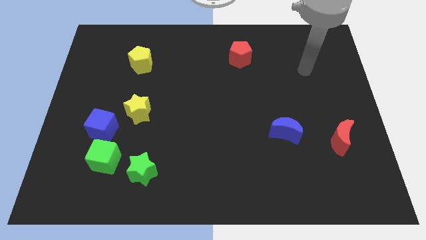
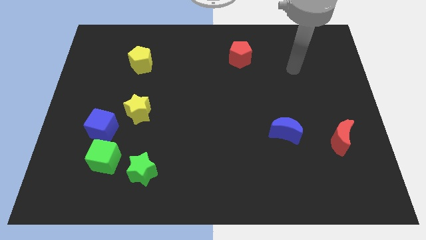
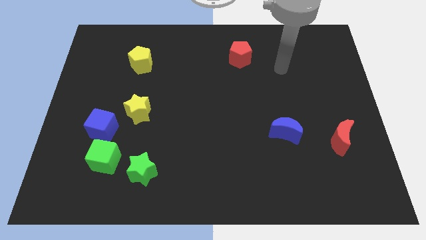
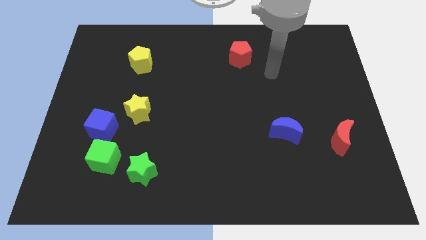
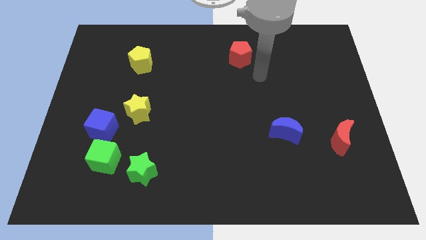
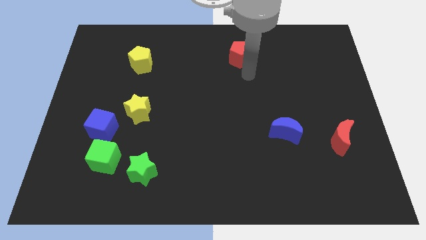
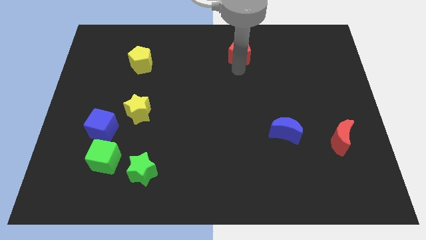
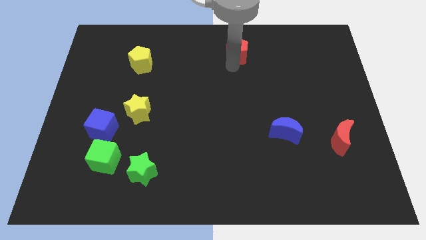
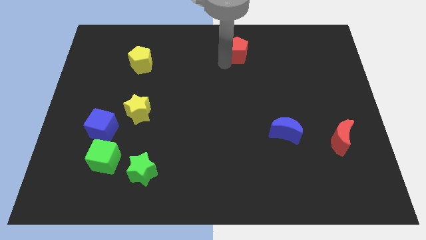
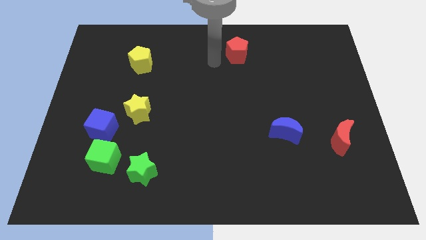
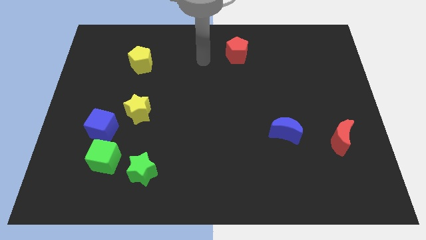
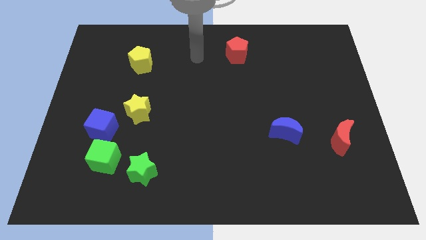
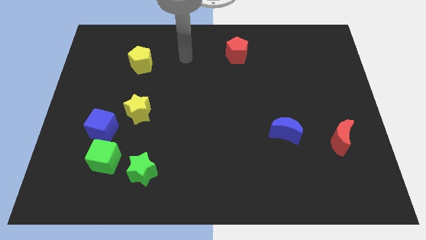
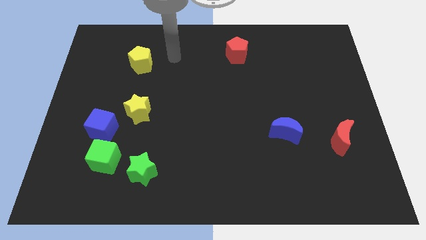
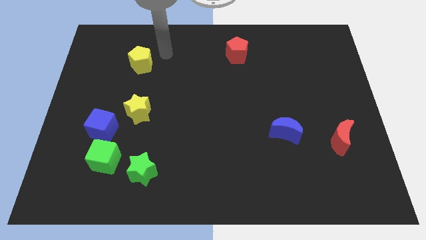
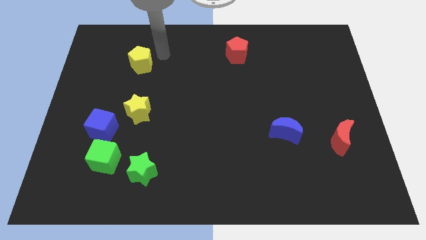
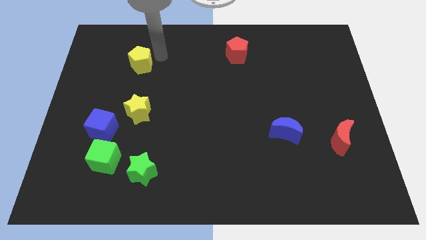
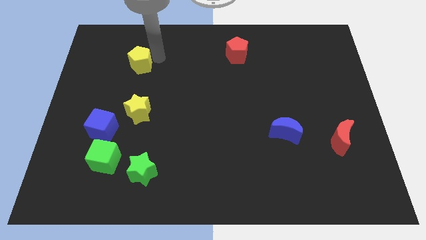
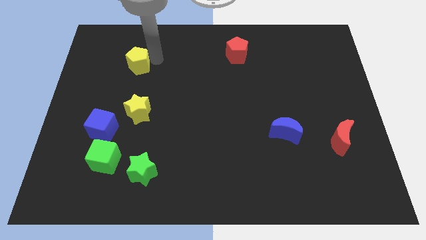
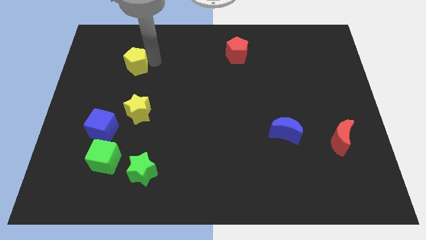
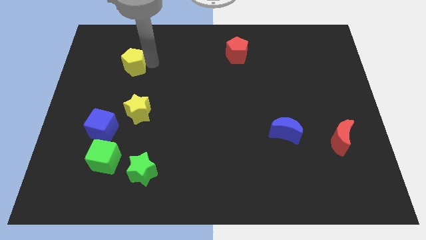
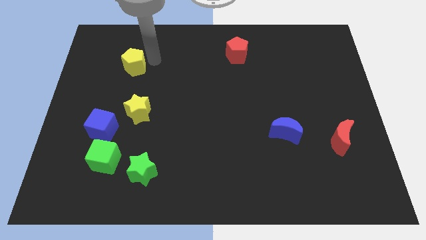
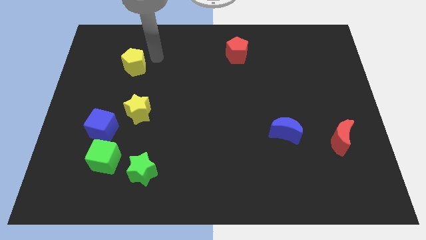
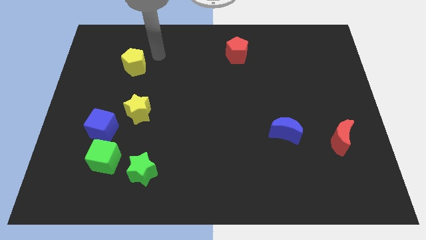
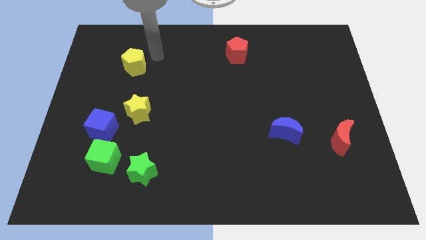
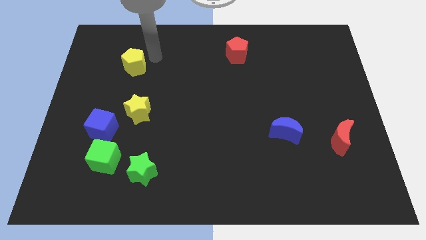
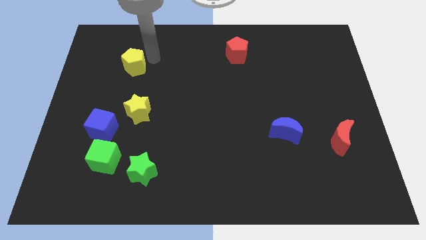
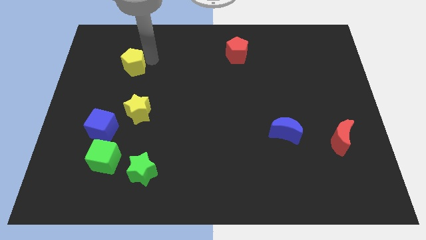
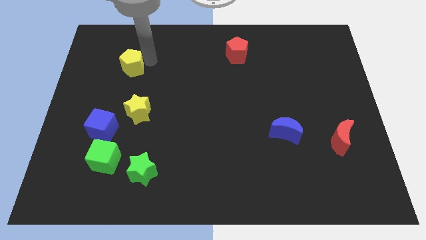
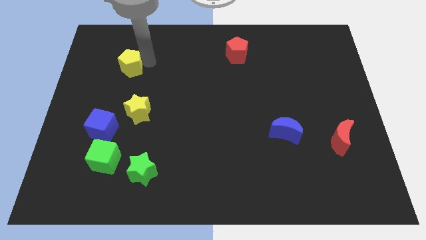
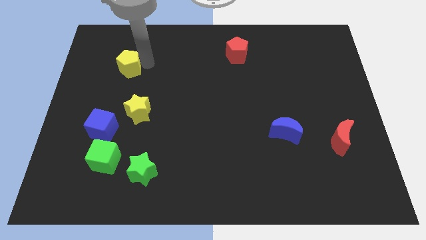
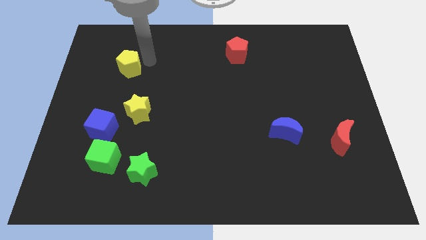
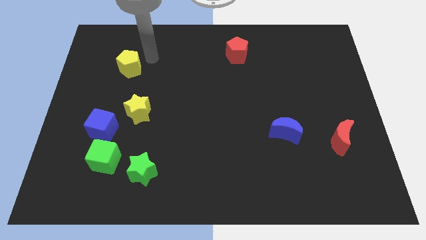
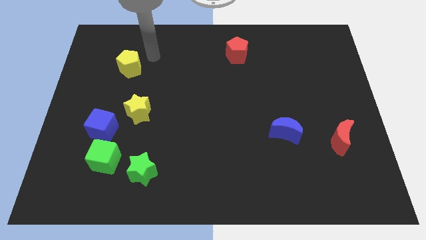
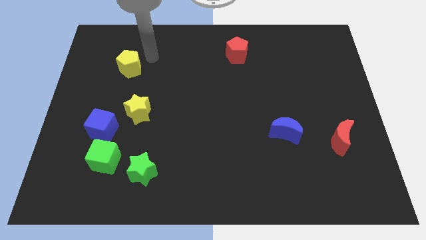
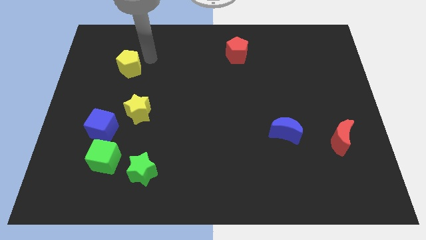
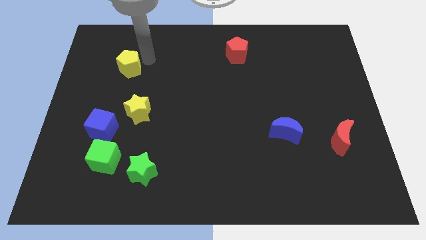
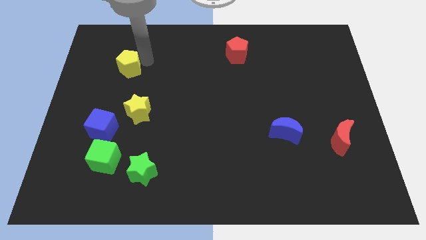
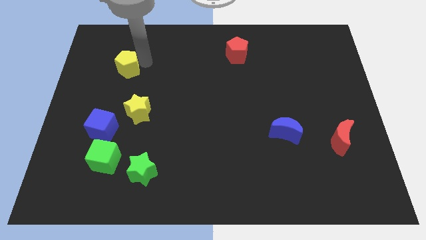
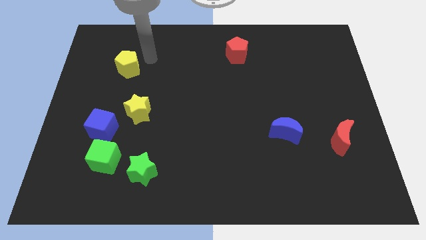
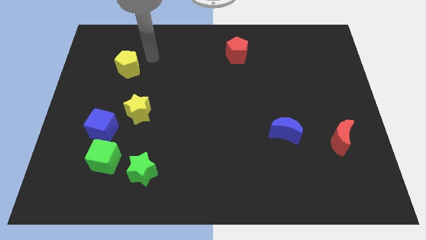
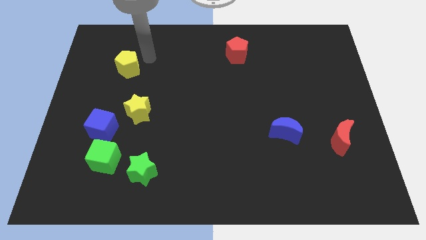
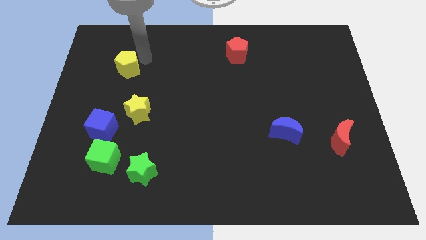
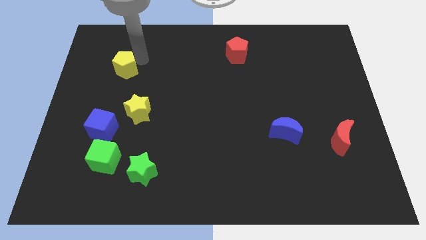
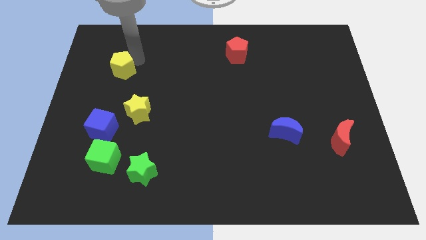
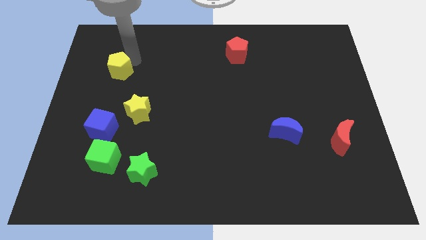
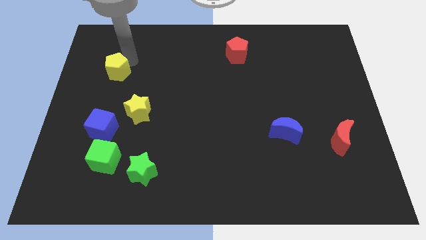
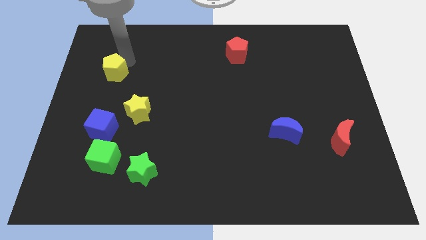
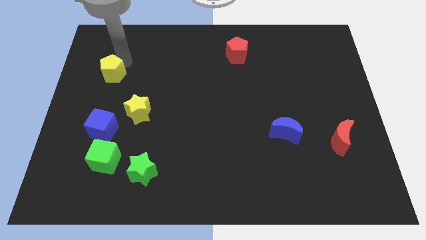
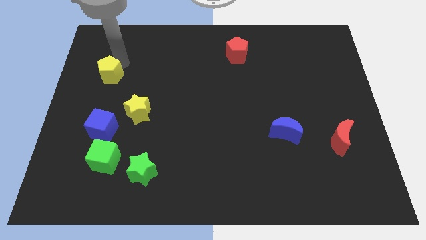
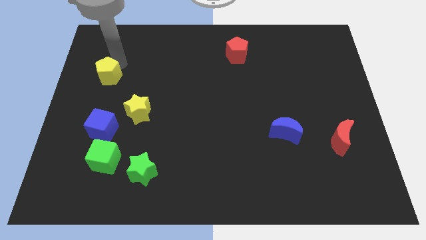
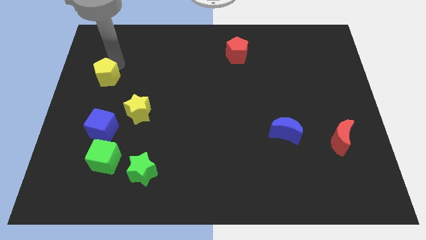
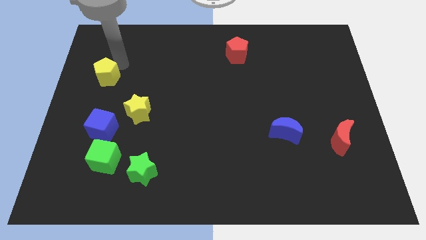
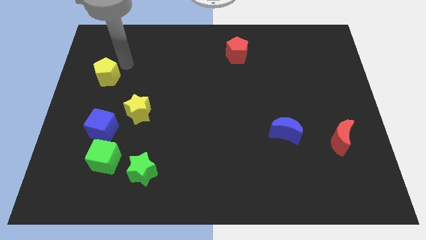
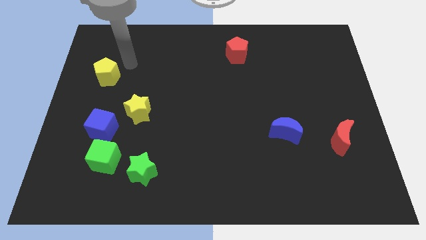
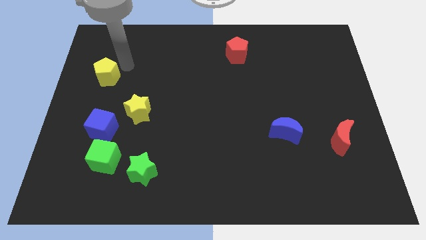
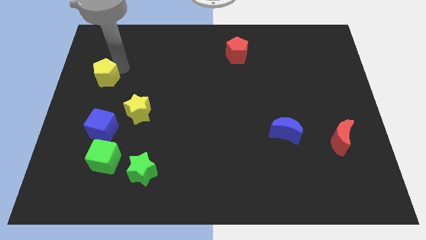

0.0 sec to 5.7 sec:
slide the yellow pentagon to the center left

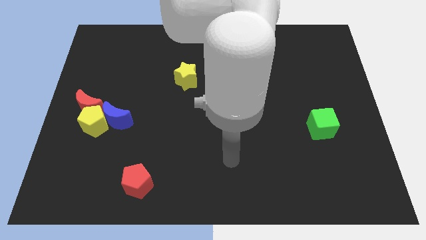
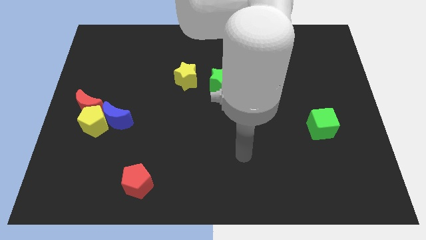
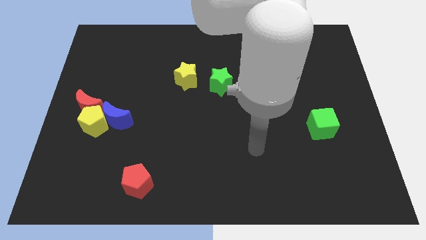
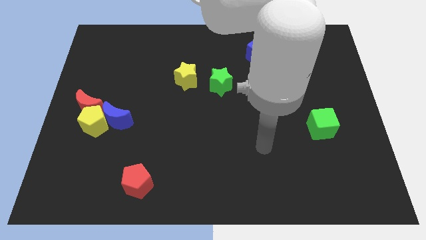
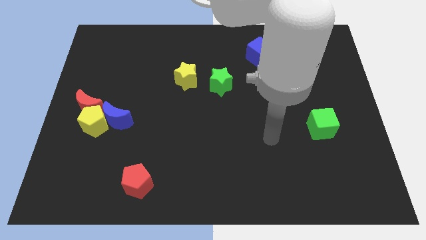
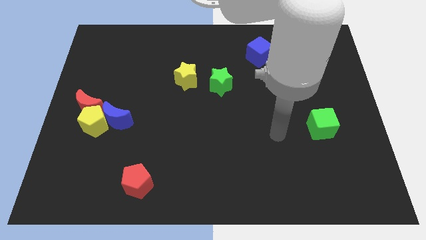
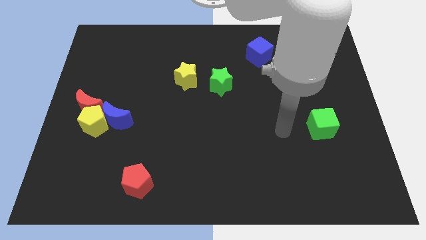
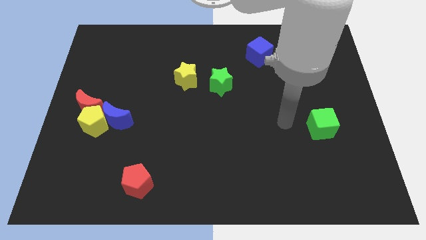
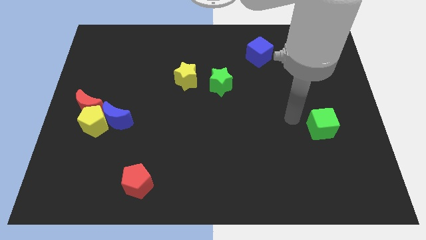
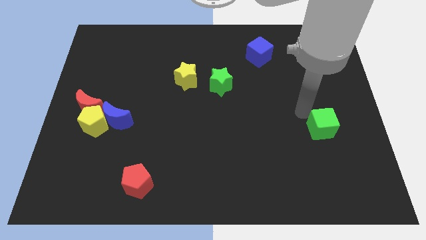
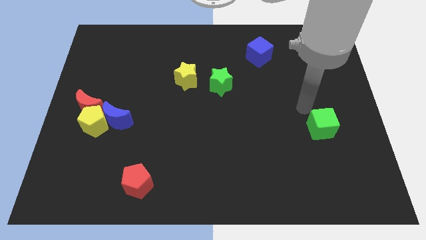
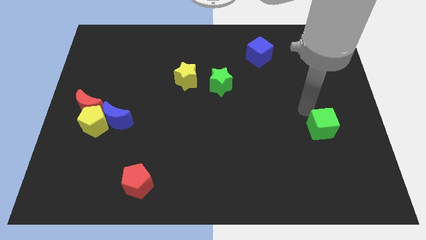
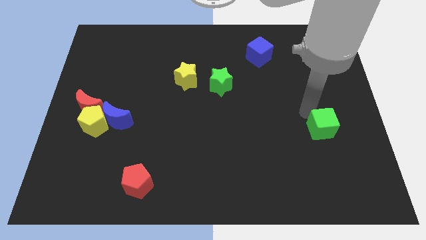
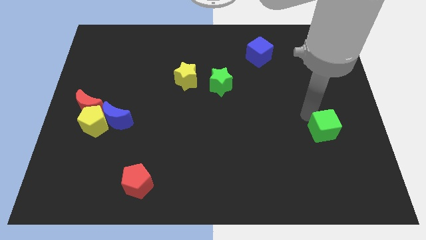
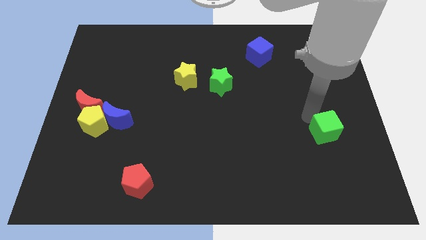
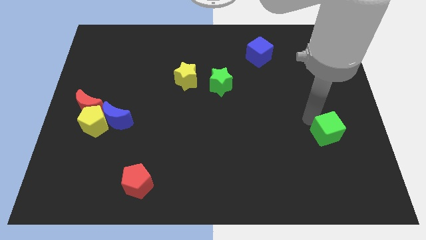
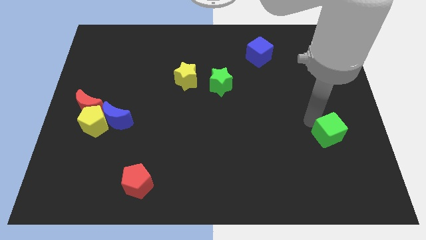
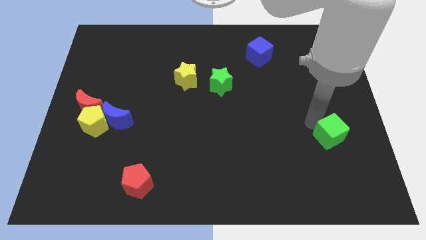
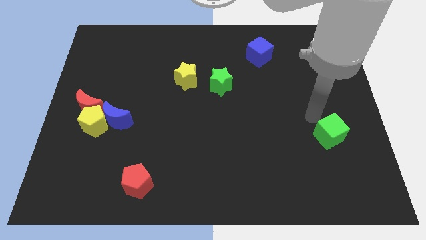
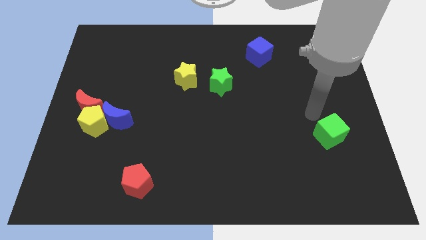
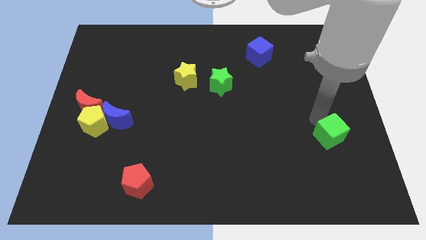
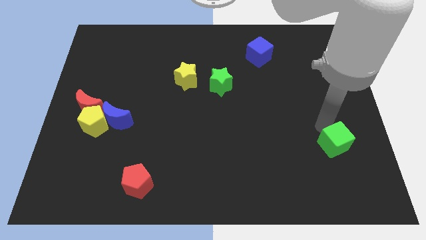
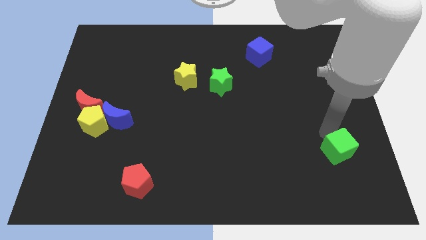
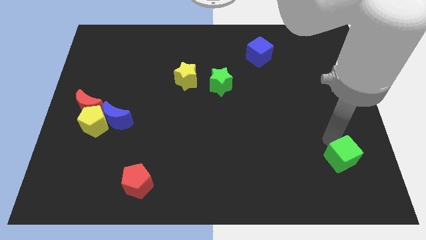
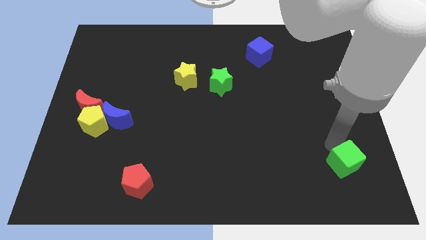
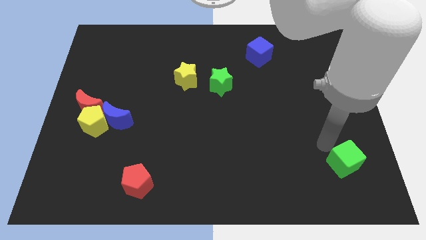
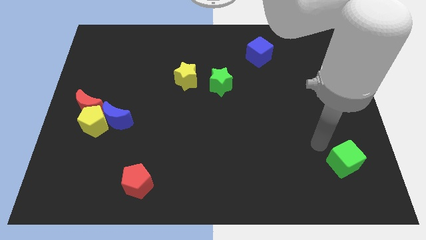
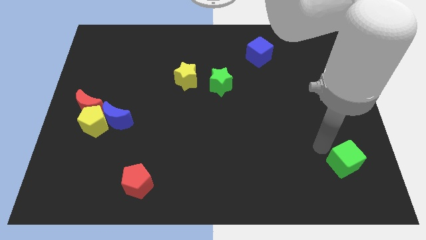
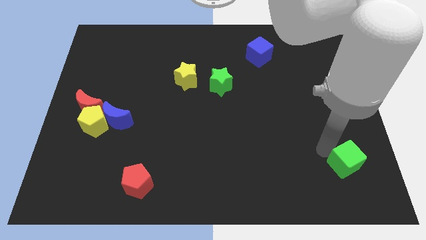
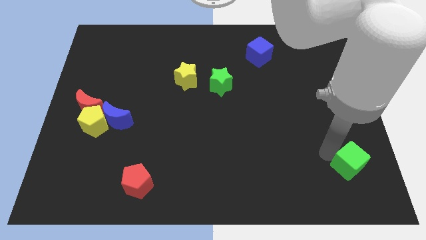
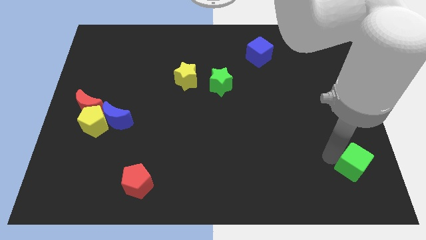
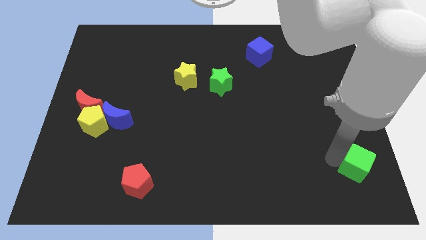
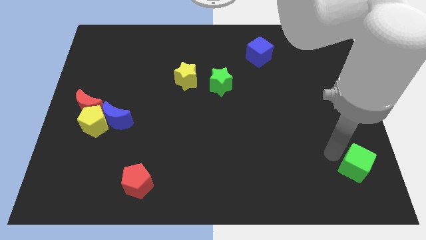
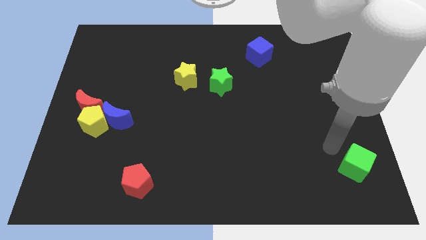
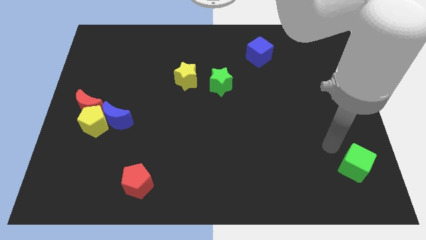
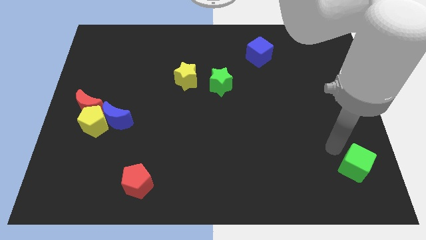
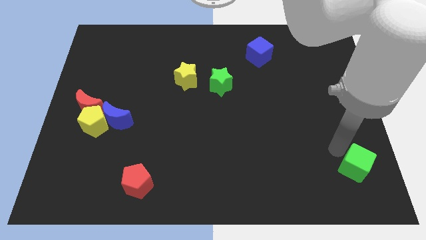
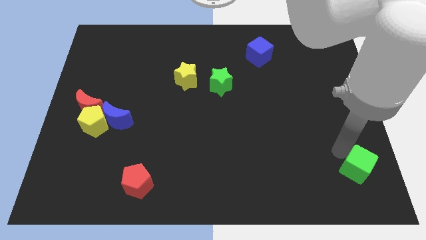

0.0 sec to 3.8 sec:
slide the green cube to the bottom right corner
